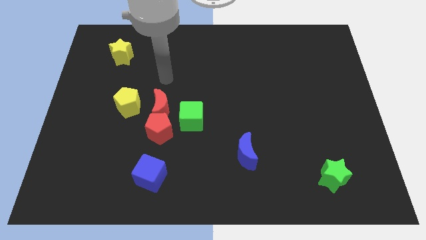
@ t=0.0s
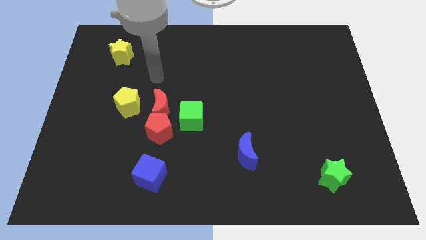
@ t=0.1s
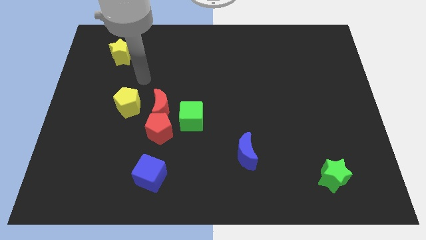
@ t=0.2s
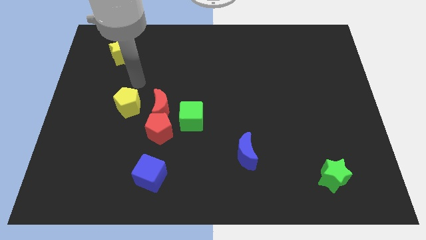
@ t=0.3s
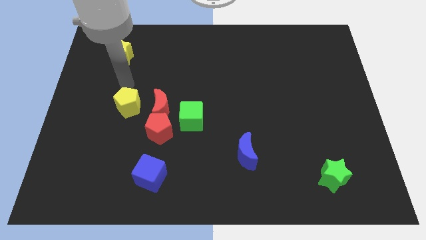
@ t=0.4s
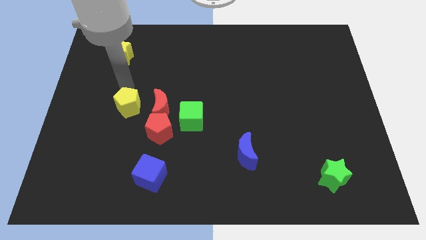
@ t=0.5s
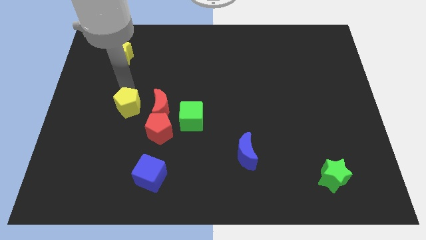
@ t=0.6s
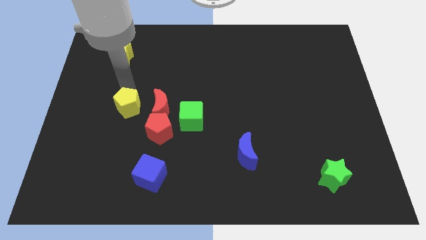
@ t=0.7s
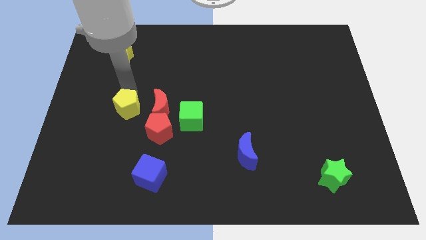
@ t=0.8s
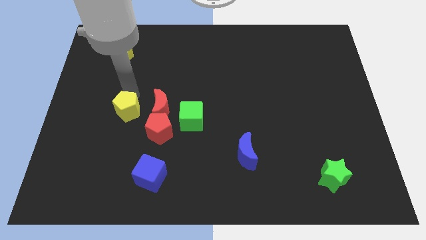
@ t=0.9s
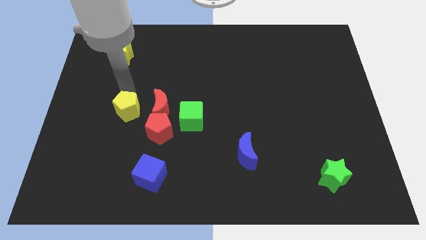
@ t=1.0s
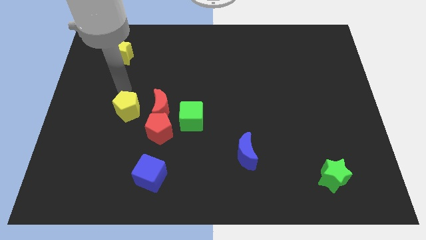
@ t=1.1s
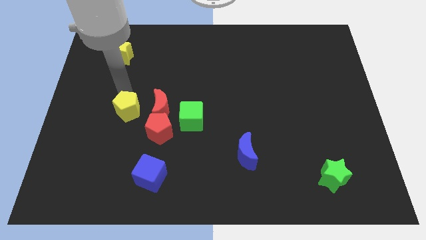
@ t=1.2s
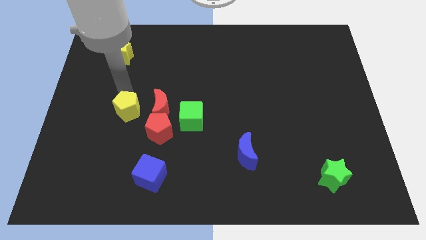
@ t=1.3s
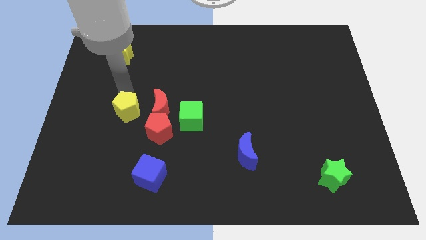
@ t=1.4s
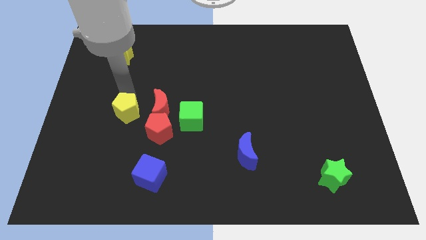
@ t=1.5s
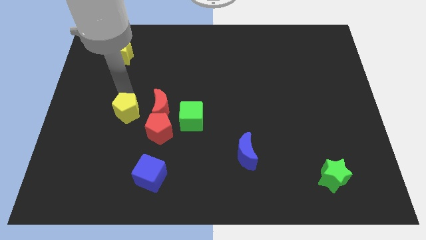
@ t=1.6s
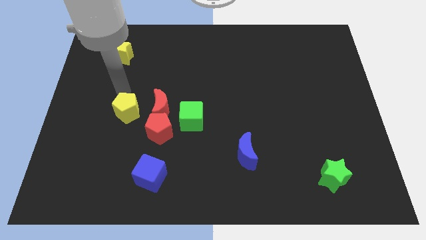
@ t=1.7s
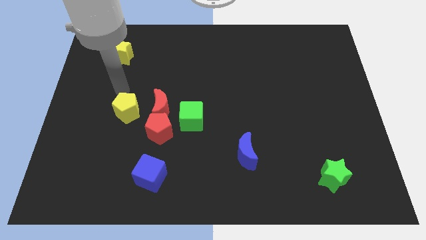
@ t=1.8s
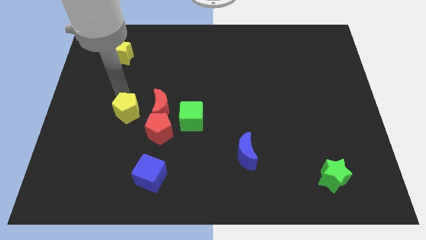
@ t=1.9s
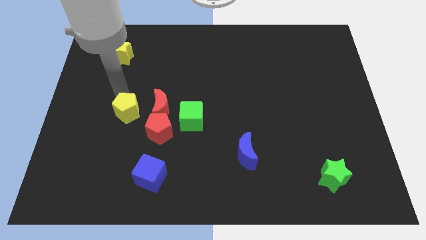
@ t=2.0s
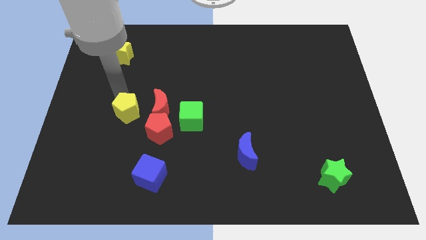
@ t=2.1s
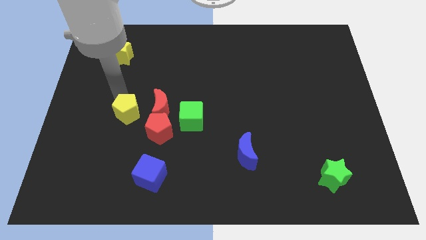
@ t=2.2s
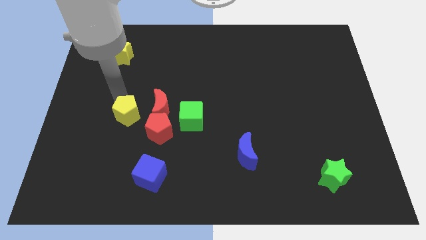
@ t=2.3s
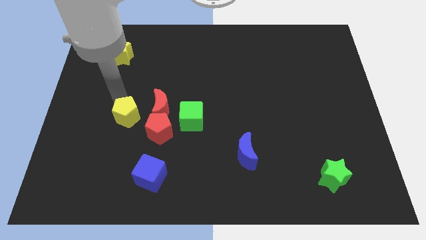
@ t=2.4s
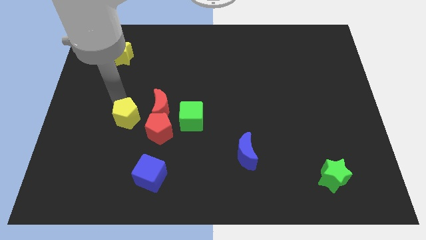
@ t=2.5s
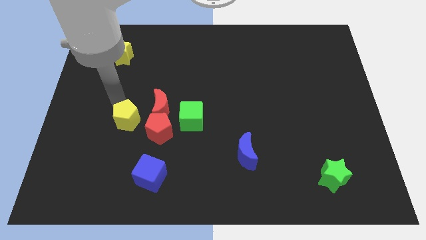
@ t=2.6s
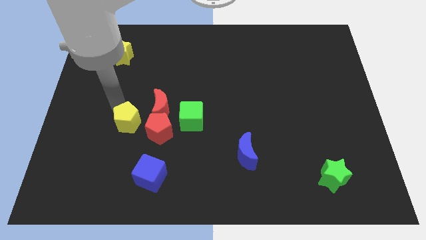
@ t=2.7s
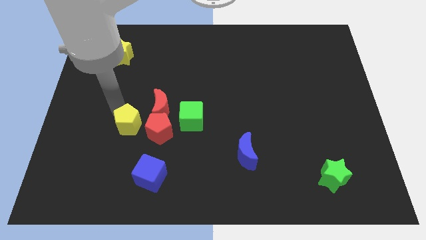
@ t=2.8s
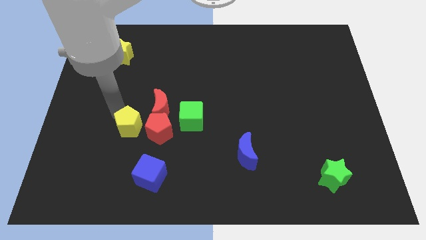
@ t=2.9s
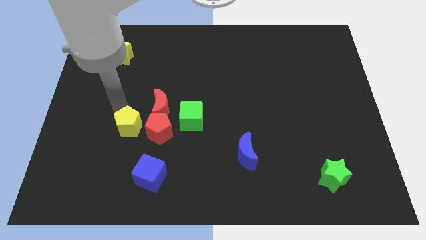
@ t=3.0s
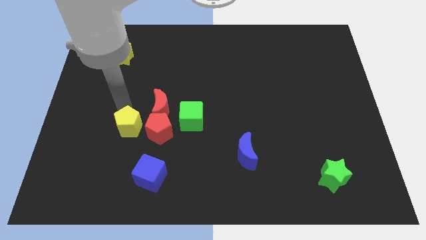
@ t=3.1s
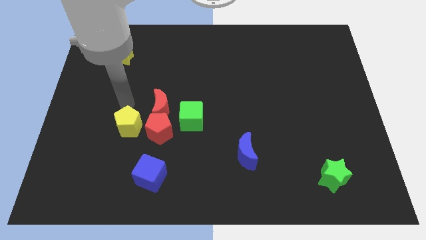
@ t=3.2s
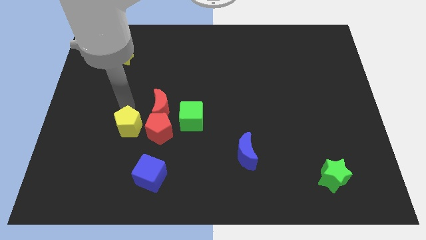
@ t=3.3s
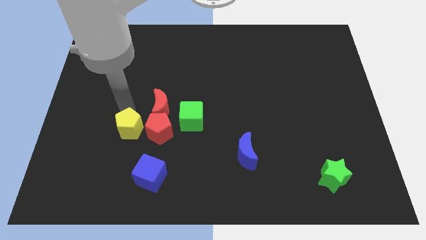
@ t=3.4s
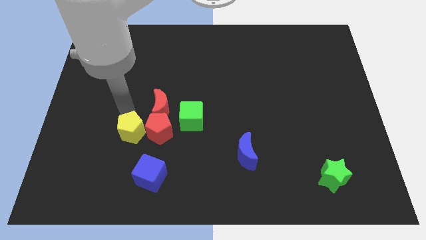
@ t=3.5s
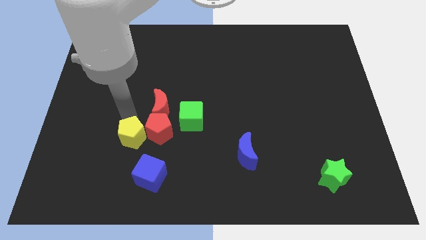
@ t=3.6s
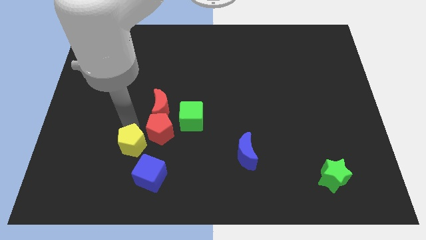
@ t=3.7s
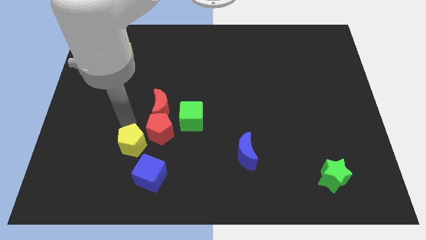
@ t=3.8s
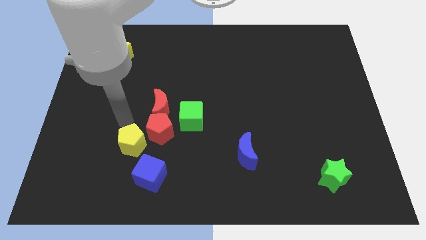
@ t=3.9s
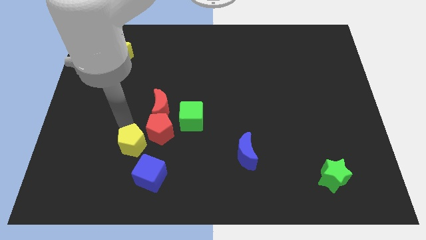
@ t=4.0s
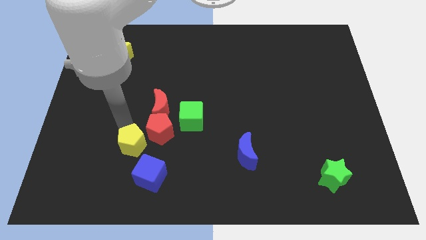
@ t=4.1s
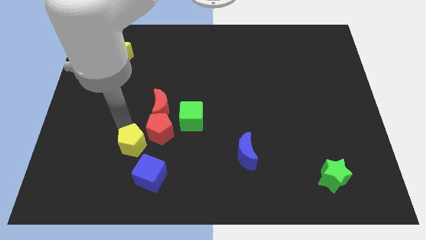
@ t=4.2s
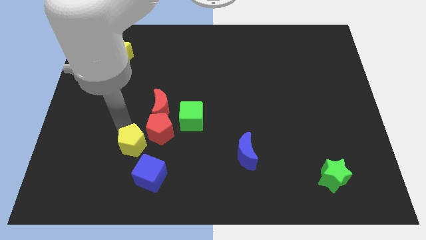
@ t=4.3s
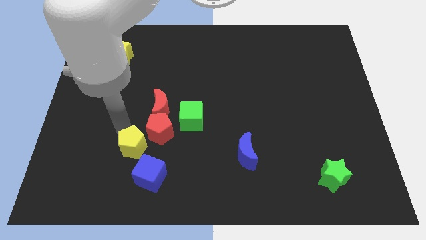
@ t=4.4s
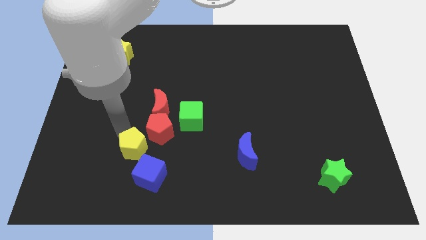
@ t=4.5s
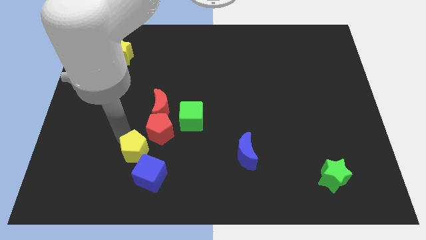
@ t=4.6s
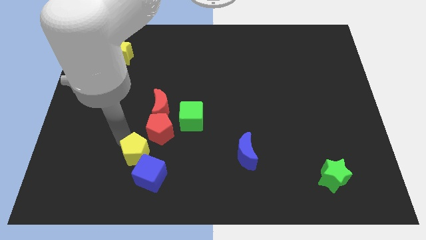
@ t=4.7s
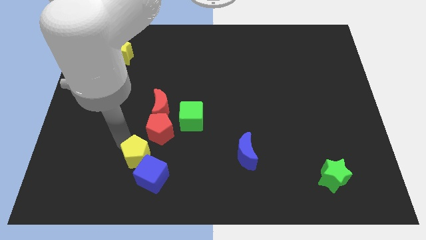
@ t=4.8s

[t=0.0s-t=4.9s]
move the yellow pentagon to the blue cube

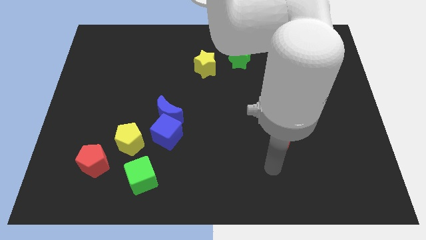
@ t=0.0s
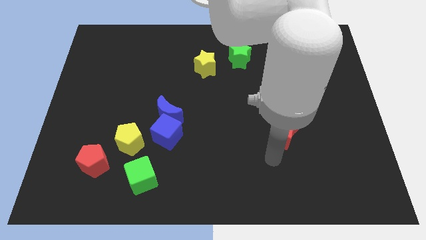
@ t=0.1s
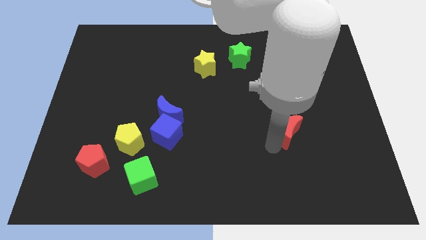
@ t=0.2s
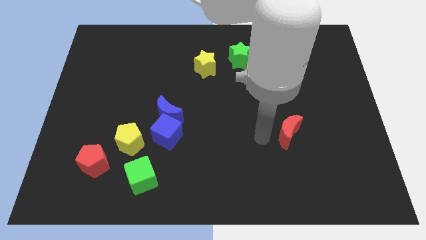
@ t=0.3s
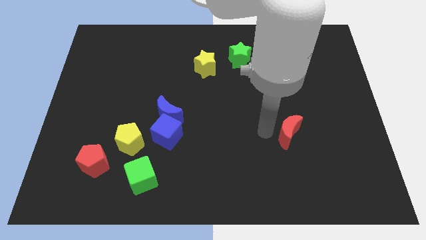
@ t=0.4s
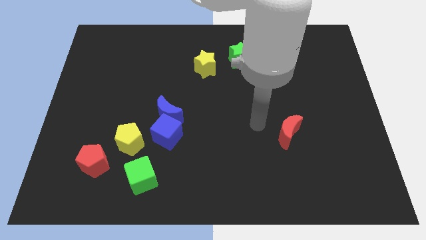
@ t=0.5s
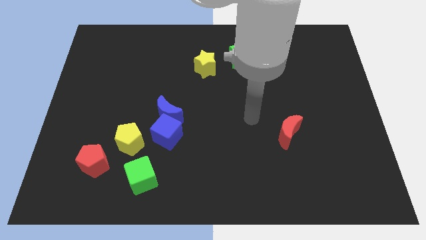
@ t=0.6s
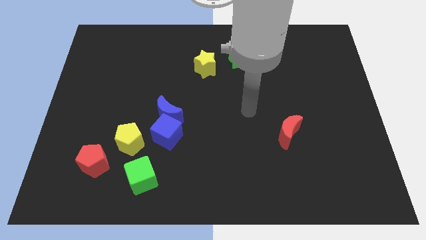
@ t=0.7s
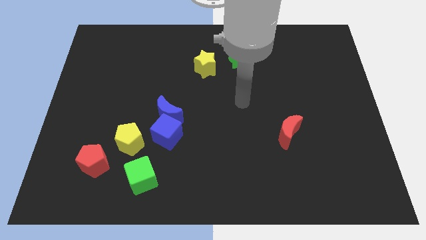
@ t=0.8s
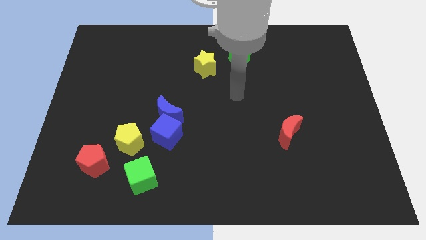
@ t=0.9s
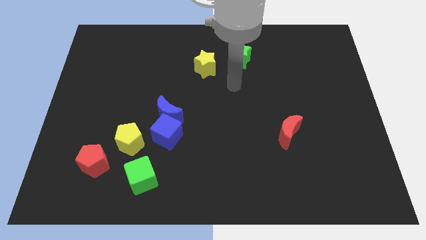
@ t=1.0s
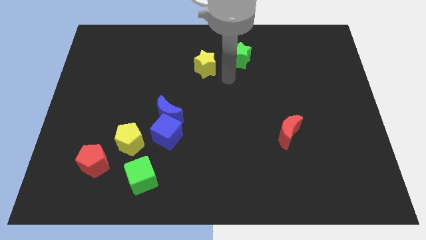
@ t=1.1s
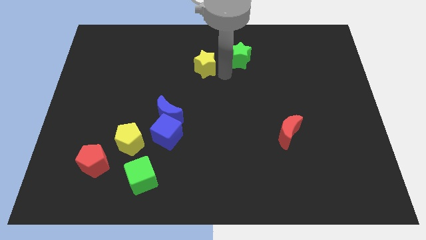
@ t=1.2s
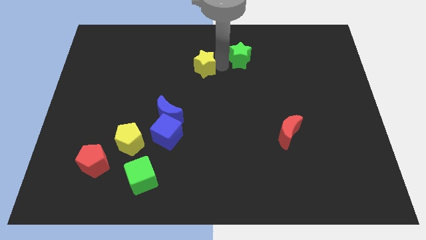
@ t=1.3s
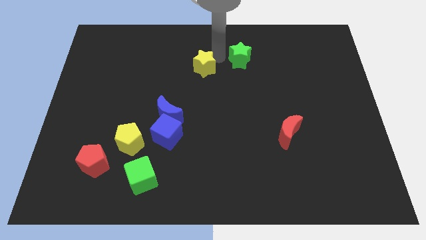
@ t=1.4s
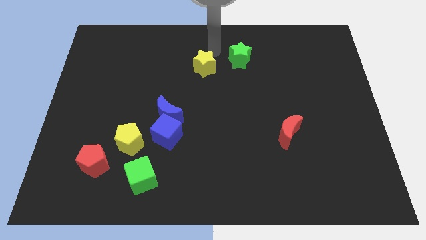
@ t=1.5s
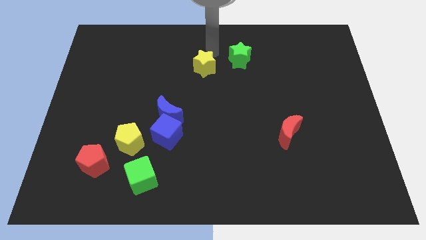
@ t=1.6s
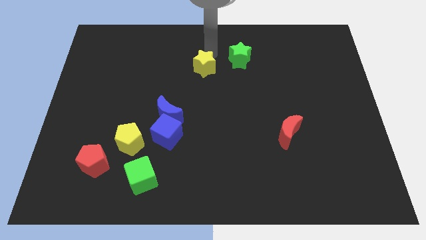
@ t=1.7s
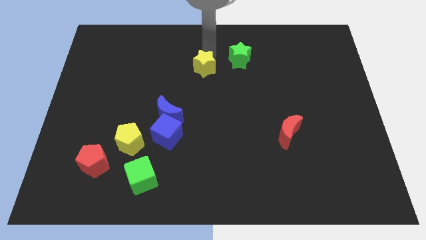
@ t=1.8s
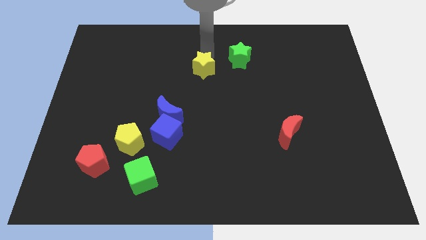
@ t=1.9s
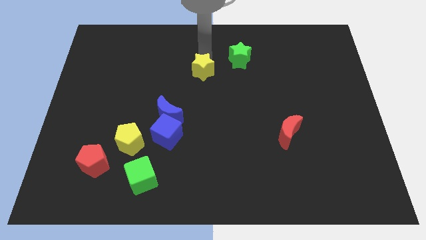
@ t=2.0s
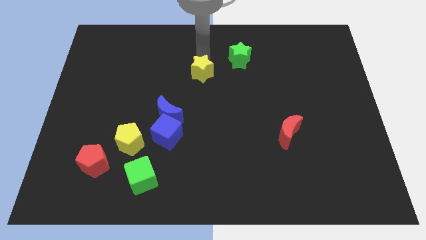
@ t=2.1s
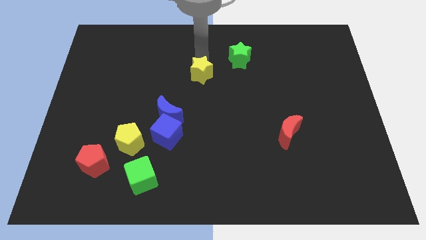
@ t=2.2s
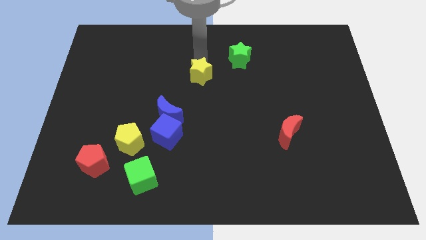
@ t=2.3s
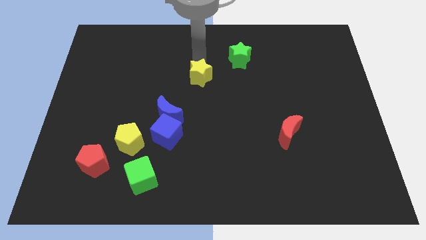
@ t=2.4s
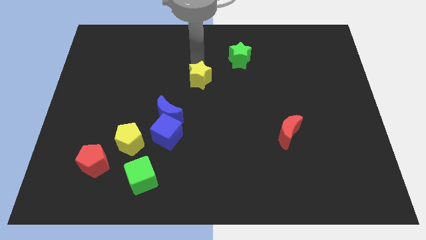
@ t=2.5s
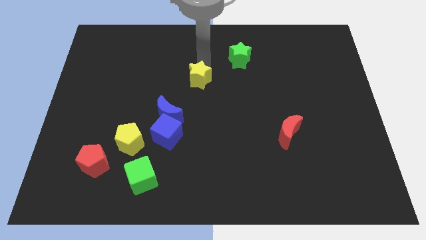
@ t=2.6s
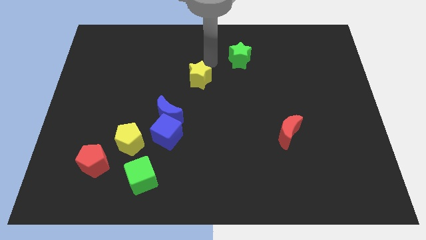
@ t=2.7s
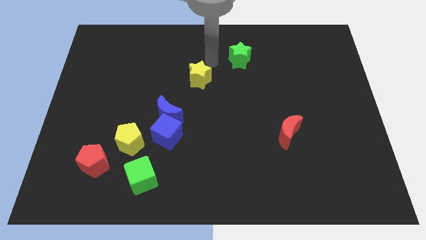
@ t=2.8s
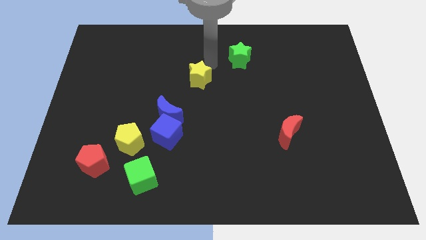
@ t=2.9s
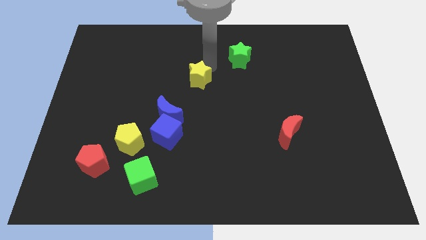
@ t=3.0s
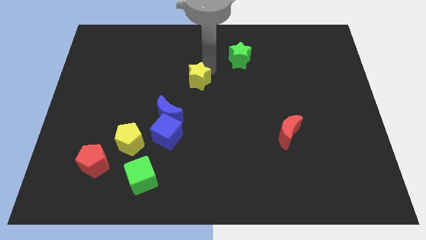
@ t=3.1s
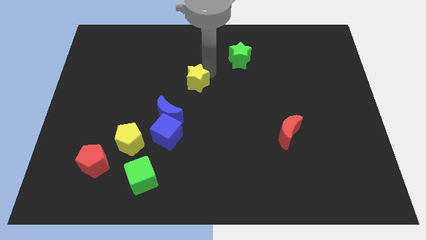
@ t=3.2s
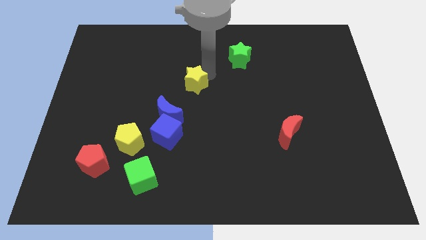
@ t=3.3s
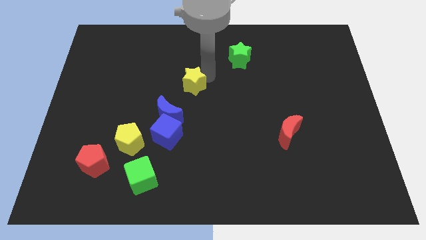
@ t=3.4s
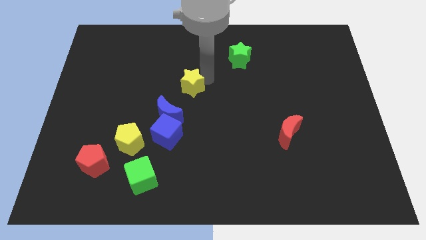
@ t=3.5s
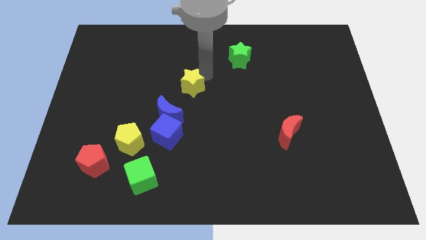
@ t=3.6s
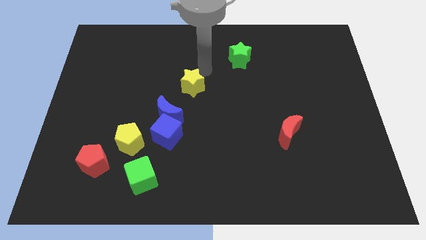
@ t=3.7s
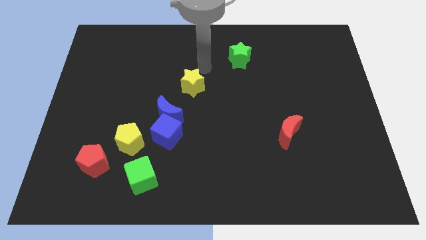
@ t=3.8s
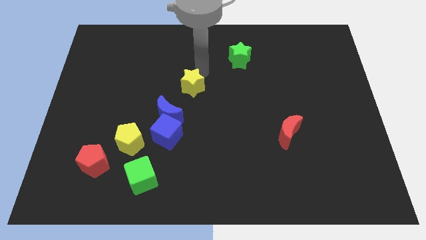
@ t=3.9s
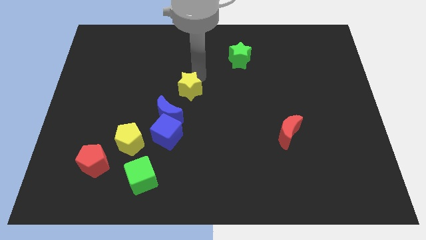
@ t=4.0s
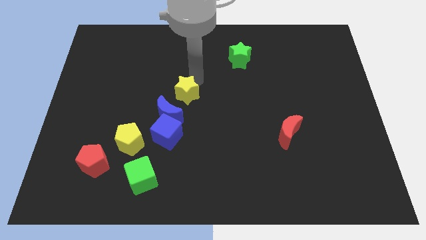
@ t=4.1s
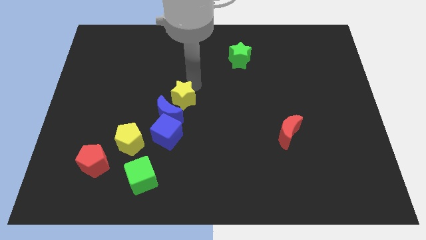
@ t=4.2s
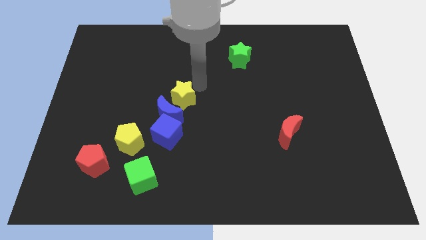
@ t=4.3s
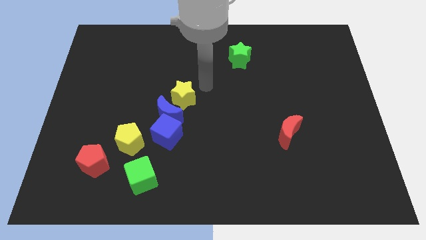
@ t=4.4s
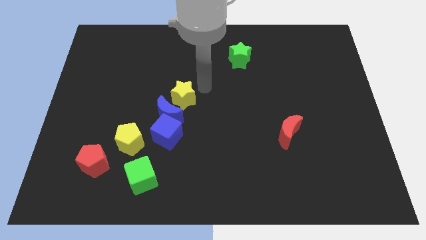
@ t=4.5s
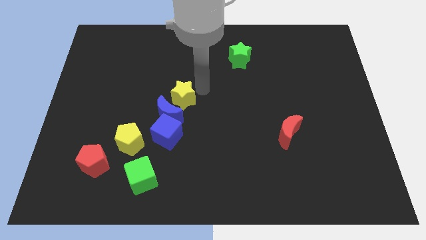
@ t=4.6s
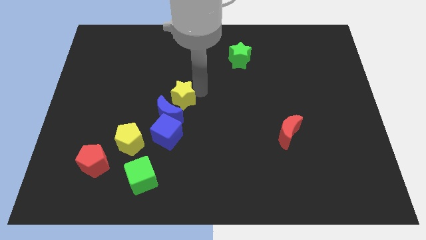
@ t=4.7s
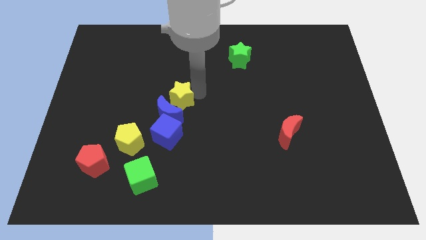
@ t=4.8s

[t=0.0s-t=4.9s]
put the yellow star close to the blue moon
